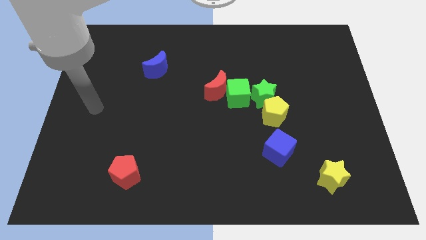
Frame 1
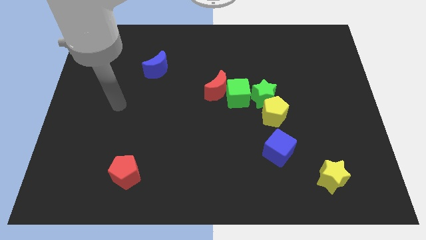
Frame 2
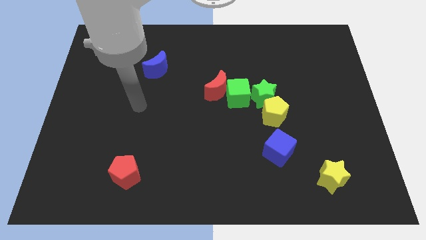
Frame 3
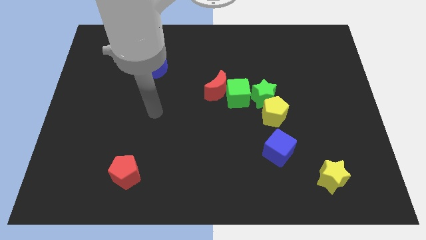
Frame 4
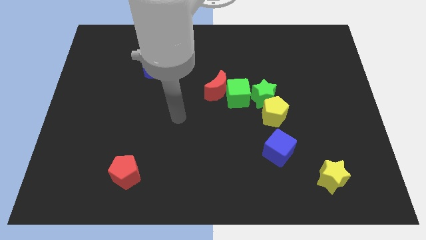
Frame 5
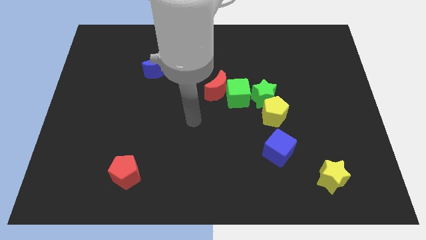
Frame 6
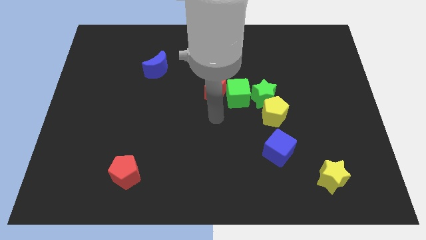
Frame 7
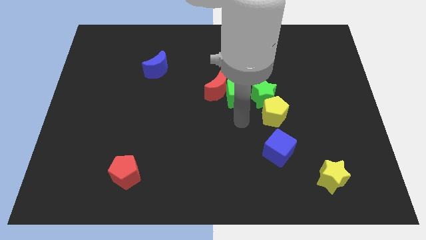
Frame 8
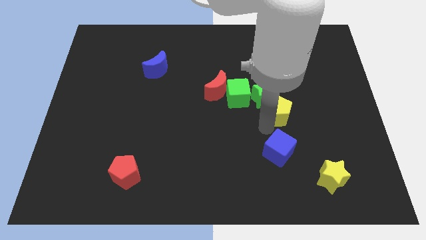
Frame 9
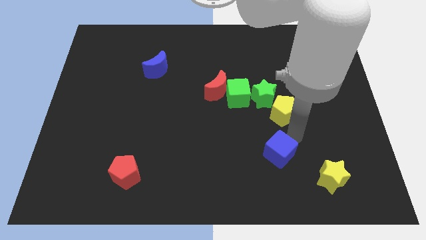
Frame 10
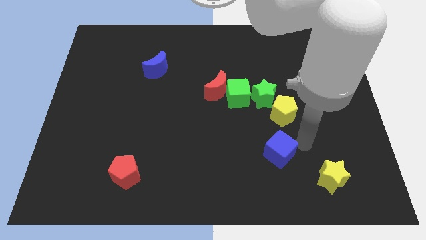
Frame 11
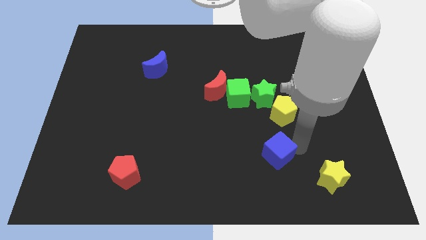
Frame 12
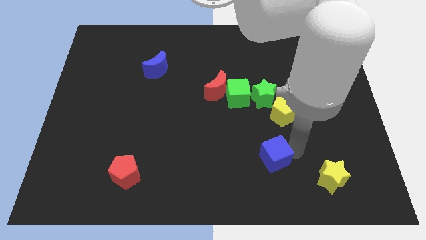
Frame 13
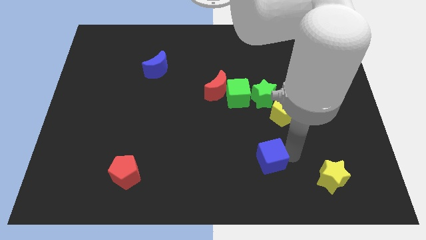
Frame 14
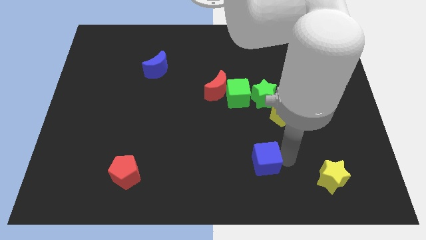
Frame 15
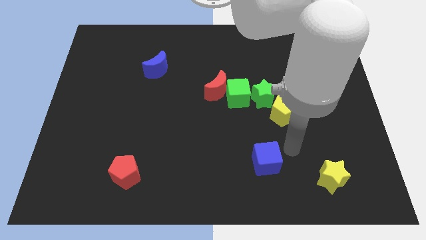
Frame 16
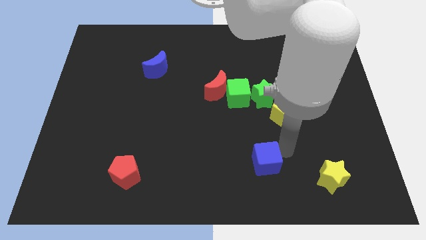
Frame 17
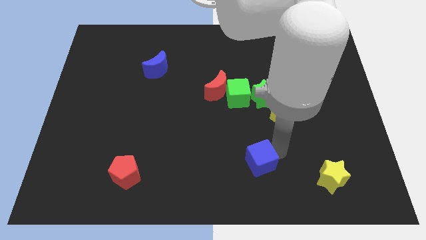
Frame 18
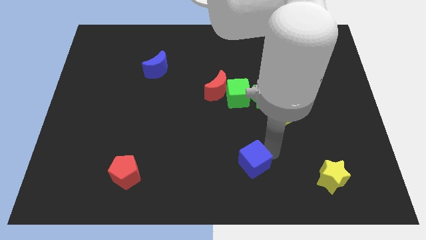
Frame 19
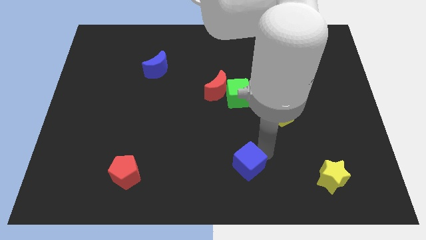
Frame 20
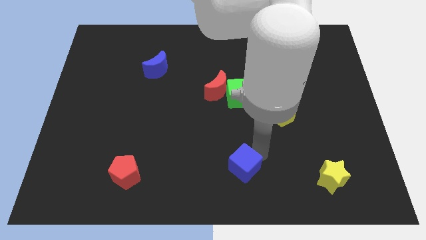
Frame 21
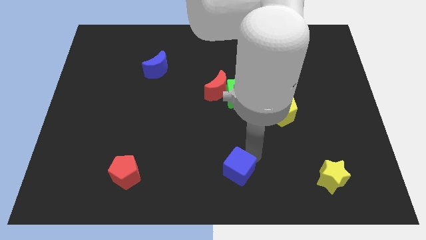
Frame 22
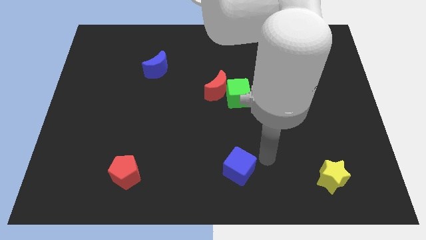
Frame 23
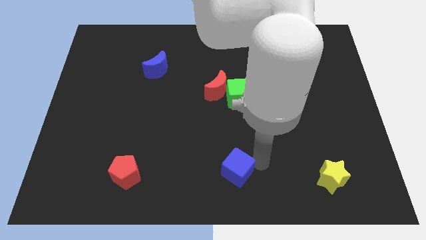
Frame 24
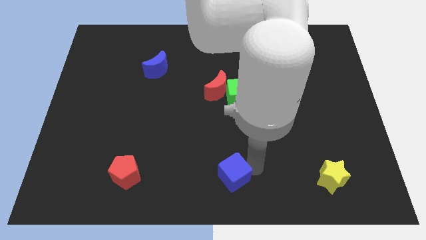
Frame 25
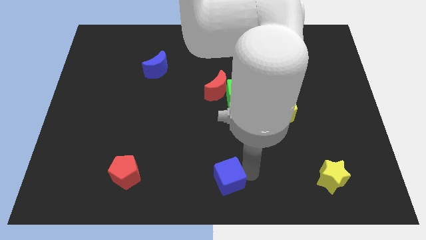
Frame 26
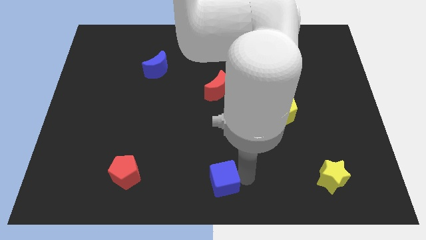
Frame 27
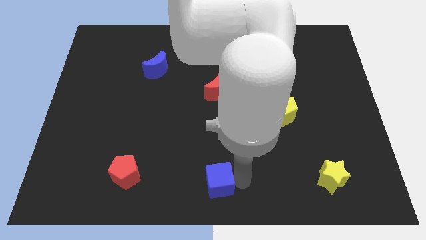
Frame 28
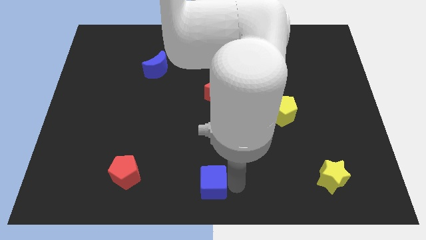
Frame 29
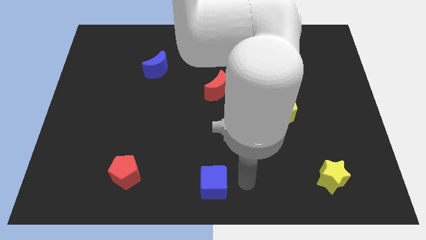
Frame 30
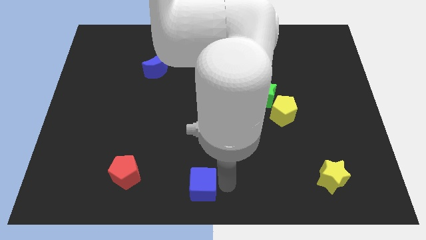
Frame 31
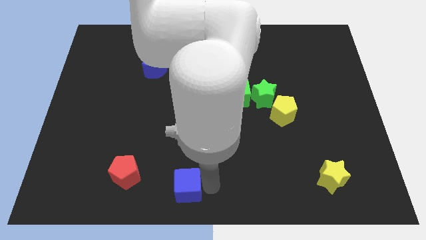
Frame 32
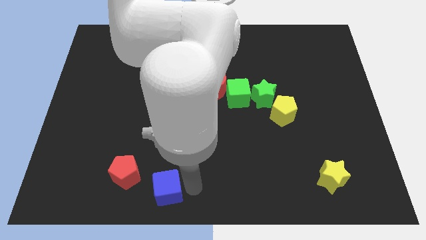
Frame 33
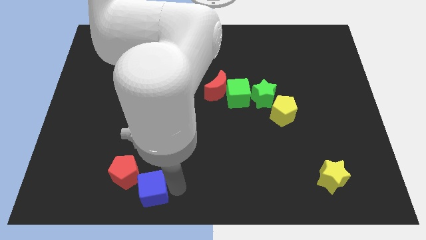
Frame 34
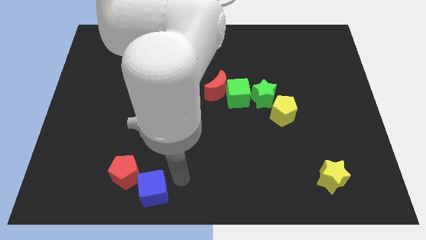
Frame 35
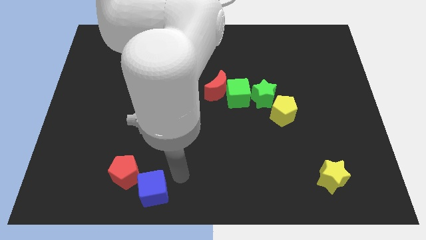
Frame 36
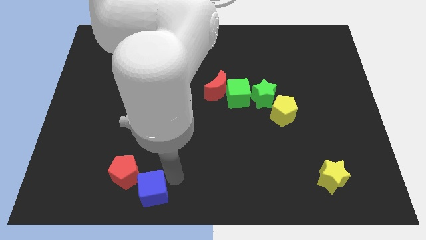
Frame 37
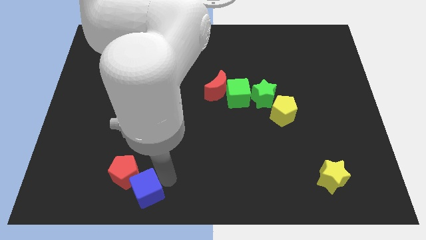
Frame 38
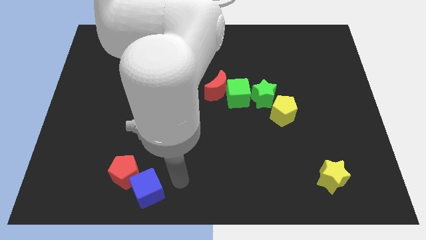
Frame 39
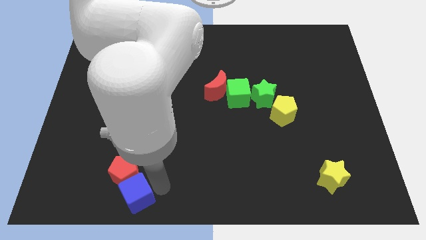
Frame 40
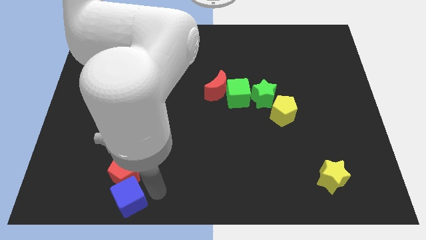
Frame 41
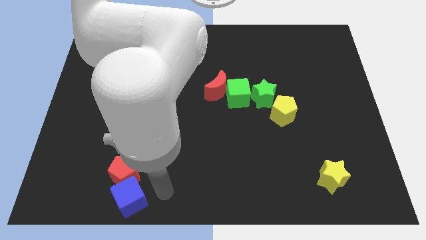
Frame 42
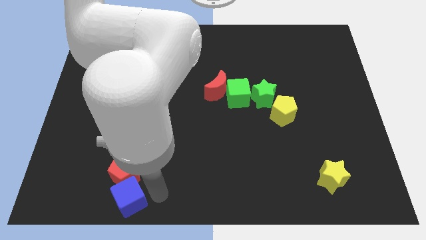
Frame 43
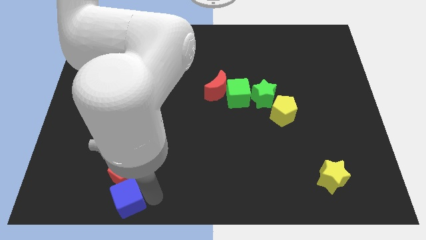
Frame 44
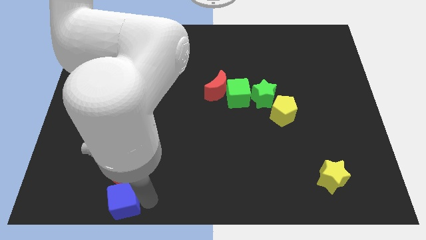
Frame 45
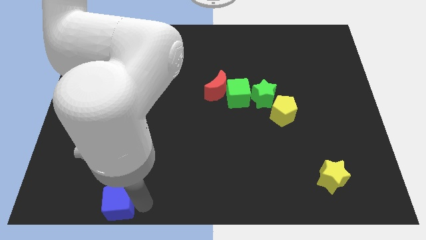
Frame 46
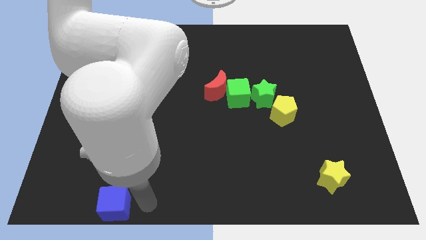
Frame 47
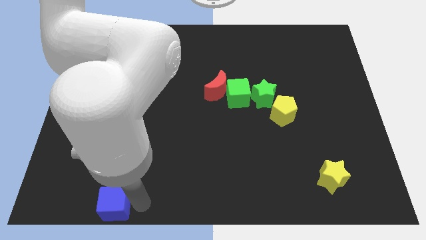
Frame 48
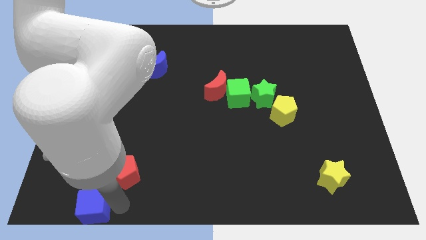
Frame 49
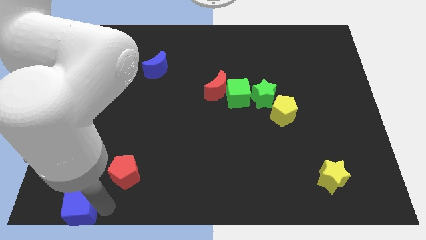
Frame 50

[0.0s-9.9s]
push the blue cube to the bottom left

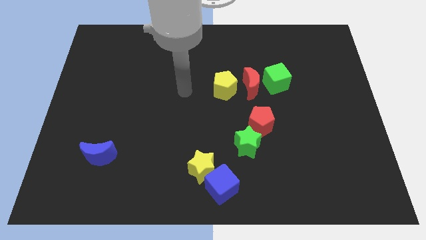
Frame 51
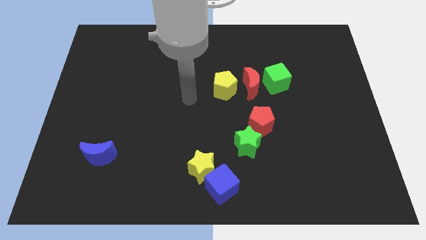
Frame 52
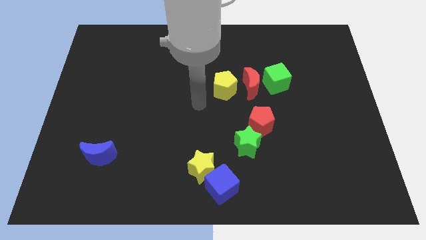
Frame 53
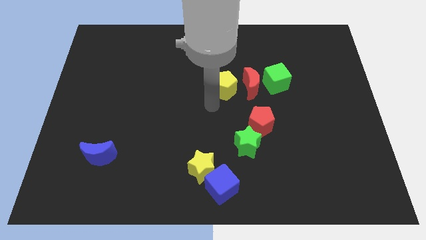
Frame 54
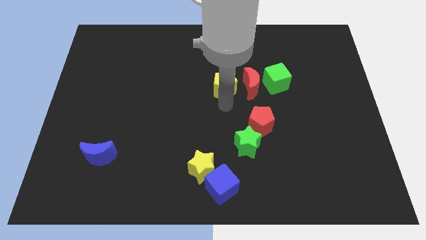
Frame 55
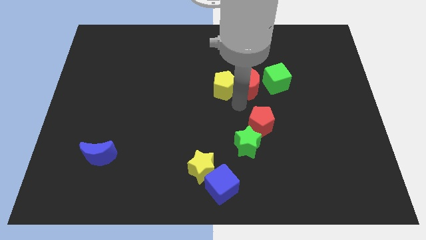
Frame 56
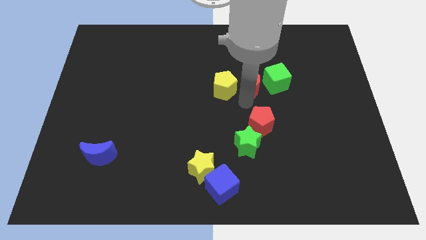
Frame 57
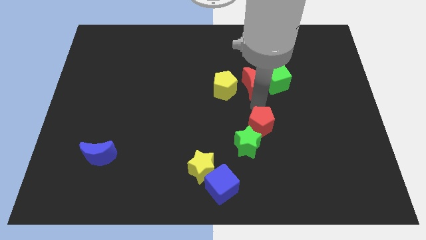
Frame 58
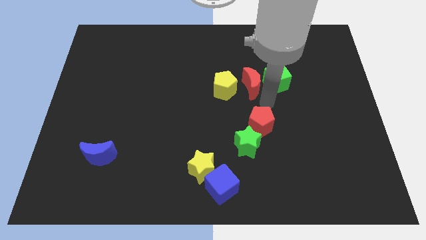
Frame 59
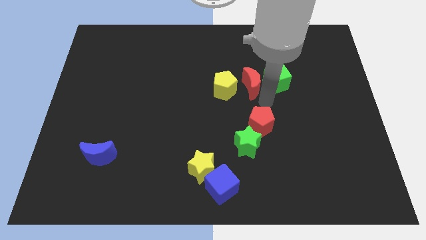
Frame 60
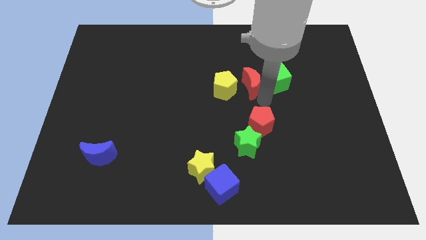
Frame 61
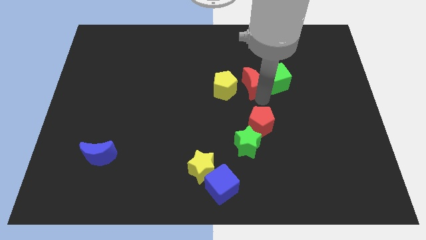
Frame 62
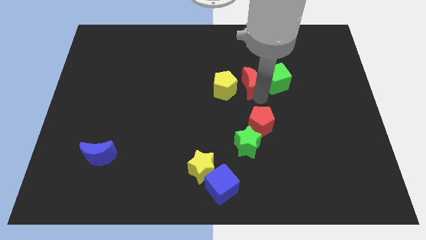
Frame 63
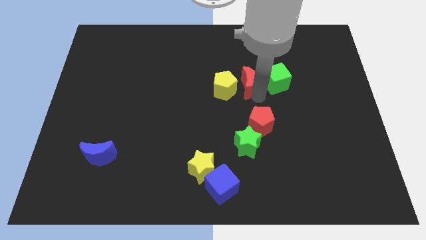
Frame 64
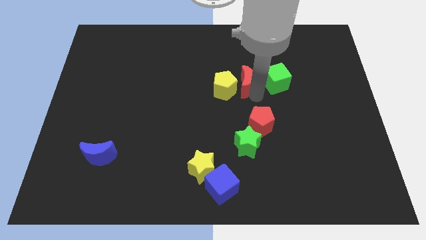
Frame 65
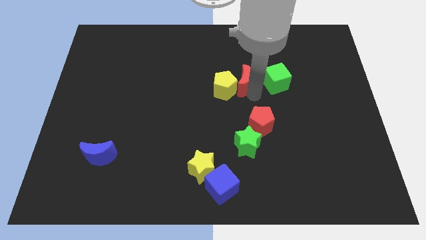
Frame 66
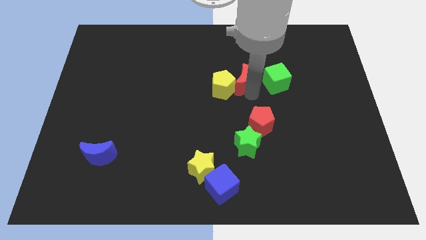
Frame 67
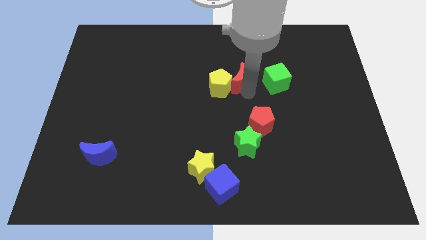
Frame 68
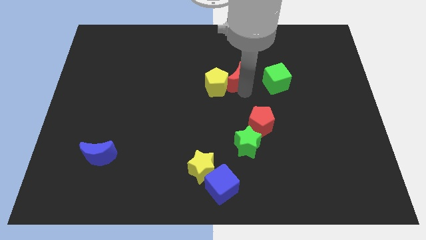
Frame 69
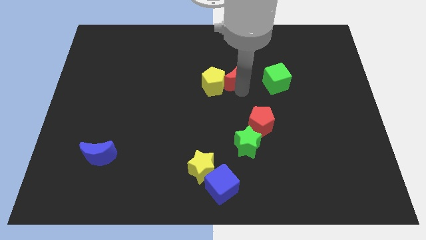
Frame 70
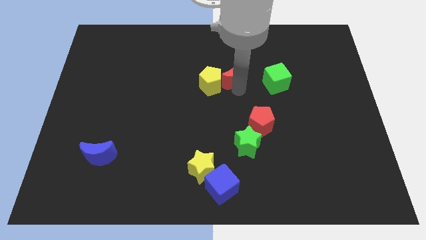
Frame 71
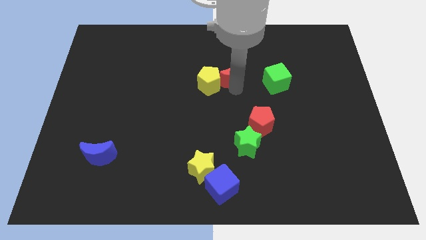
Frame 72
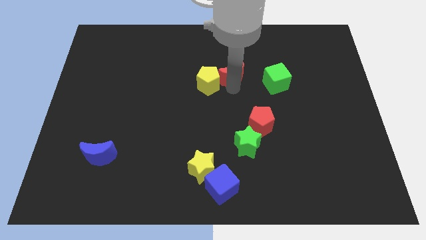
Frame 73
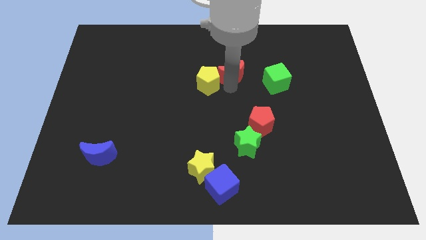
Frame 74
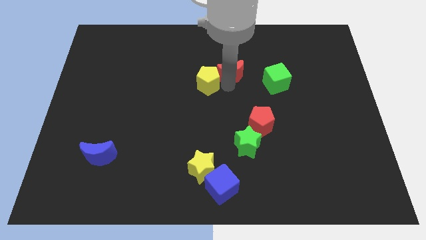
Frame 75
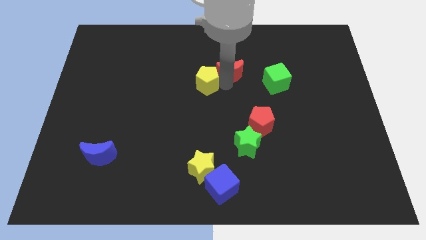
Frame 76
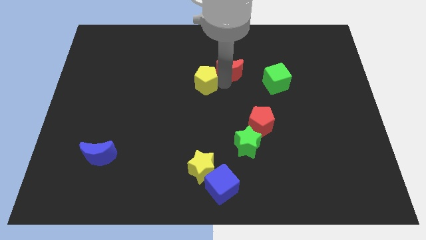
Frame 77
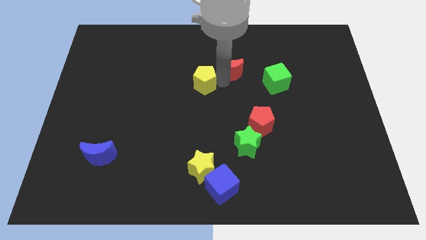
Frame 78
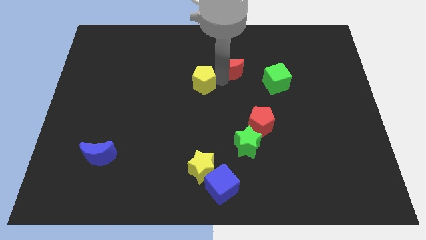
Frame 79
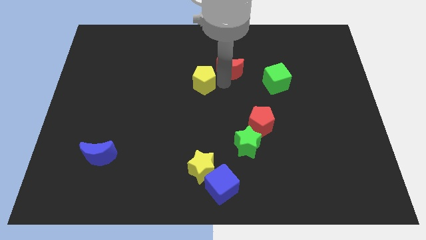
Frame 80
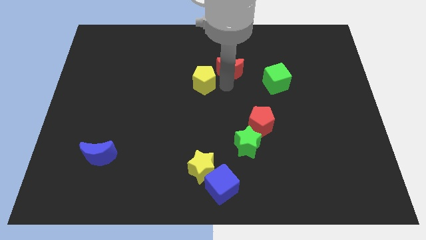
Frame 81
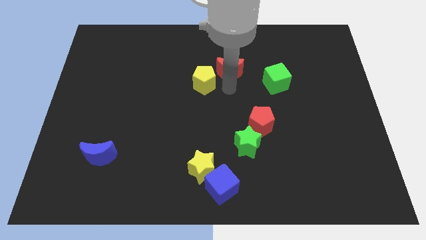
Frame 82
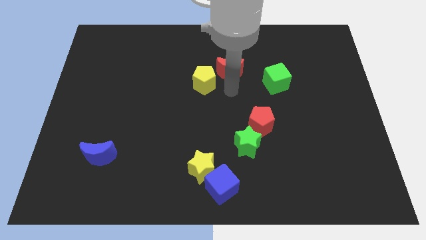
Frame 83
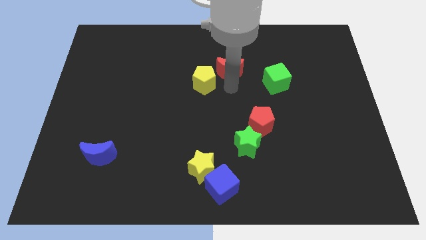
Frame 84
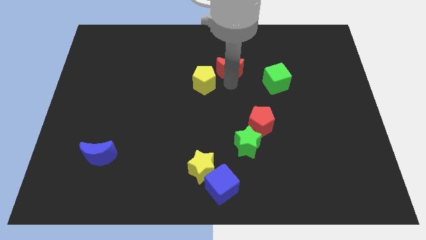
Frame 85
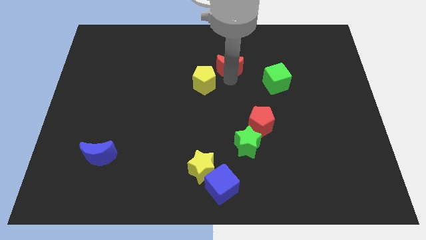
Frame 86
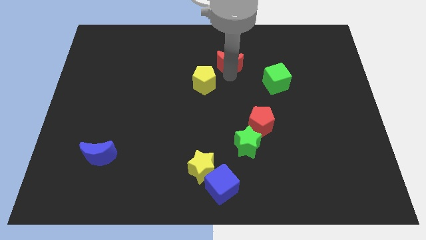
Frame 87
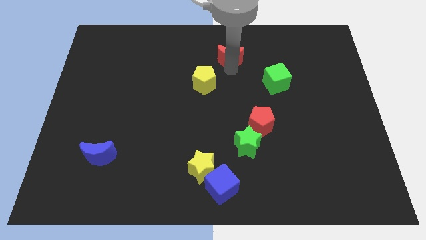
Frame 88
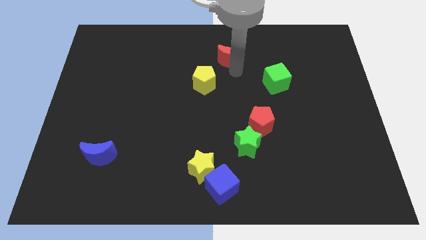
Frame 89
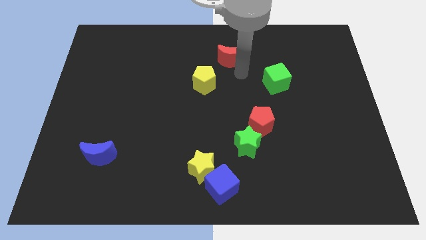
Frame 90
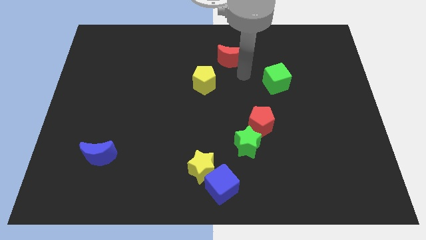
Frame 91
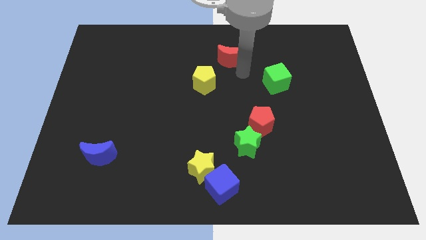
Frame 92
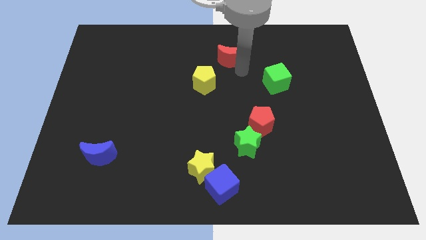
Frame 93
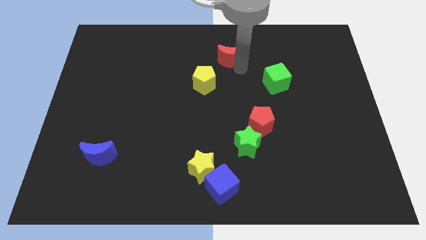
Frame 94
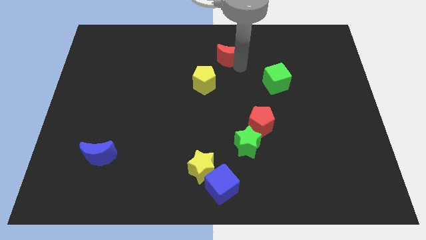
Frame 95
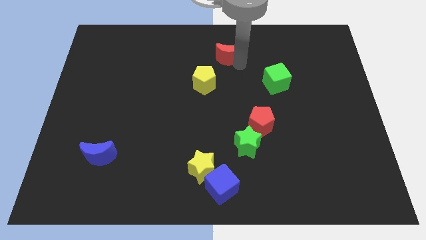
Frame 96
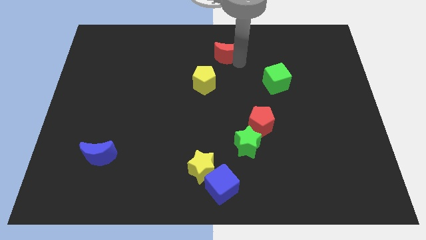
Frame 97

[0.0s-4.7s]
put the red moon to the top side
